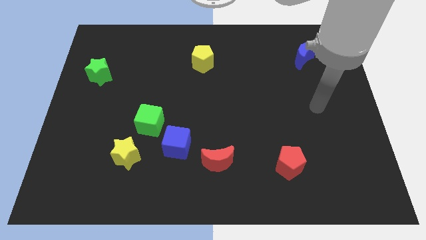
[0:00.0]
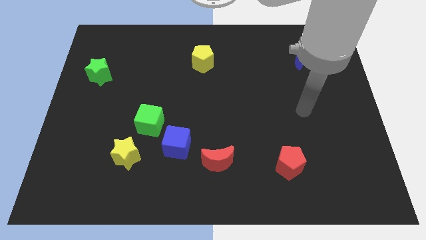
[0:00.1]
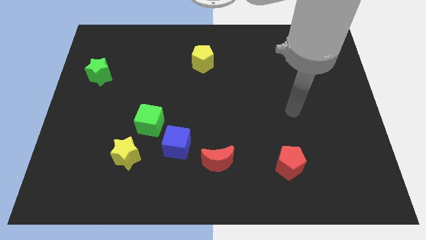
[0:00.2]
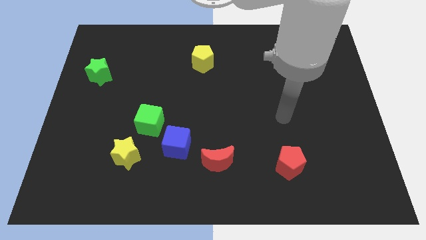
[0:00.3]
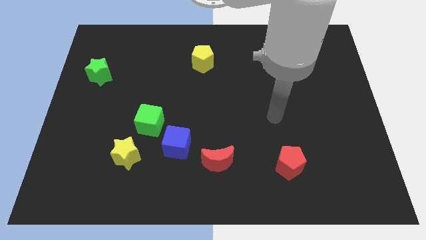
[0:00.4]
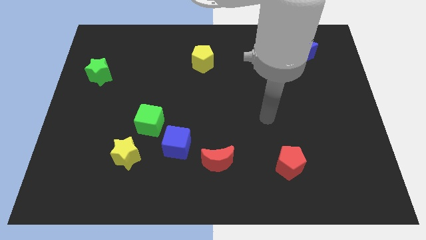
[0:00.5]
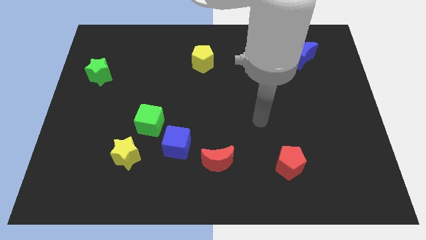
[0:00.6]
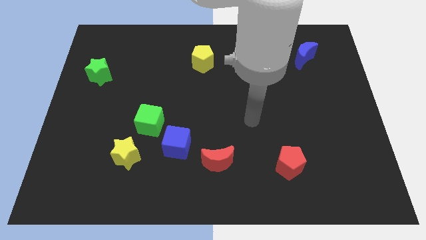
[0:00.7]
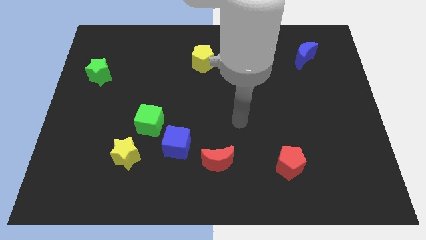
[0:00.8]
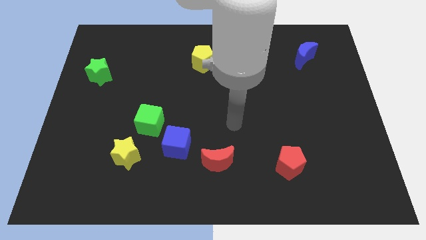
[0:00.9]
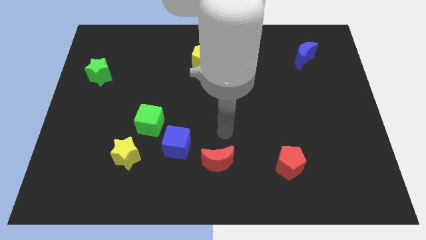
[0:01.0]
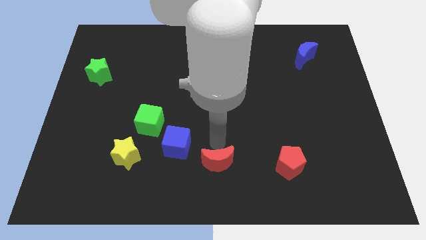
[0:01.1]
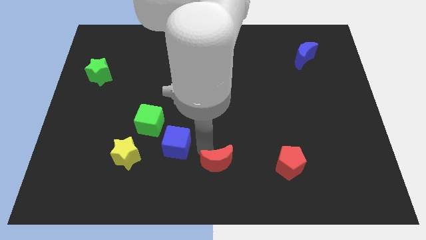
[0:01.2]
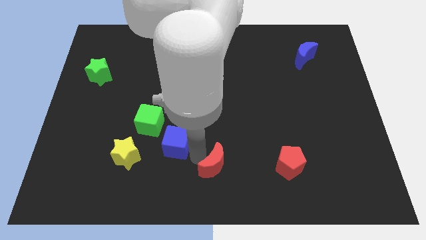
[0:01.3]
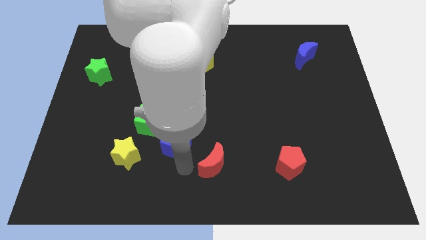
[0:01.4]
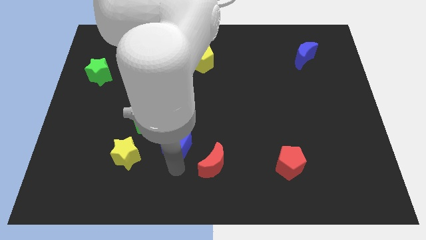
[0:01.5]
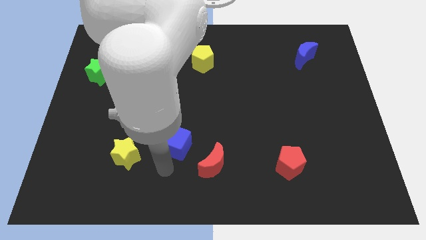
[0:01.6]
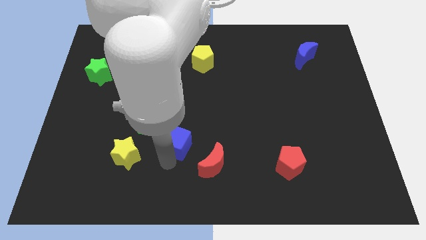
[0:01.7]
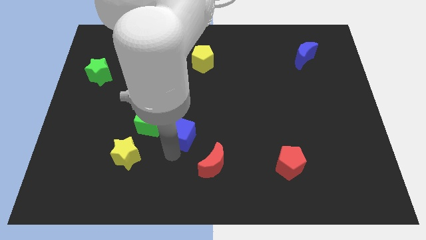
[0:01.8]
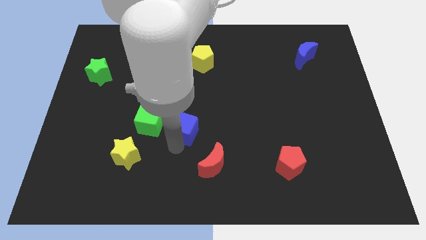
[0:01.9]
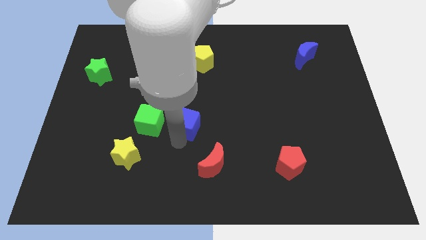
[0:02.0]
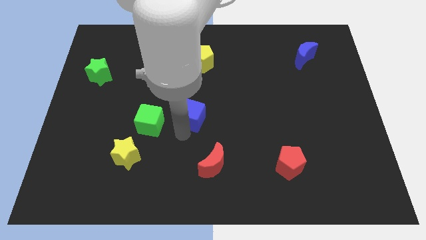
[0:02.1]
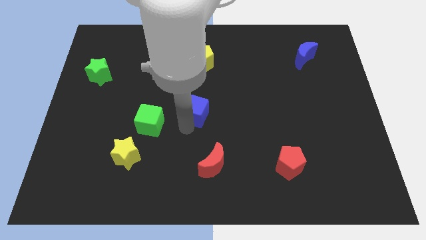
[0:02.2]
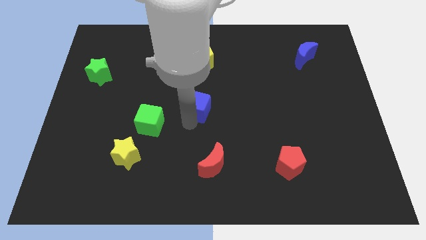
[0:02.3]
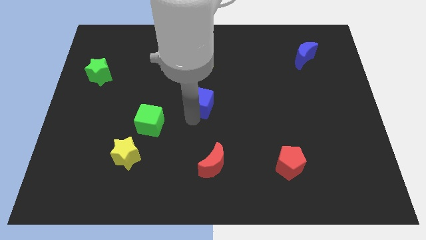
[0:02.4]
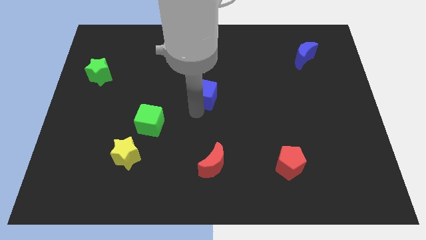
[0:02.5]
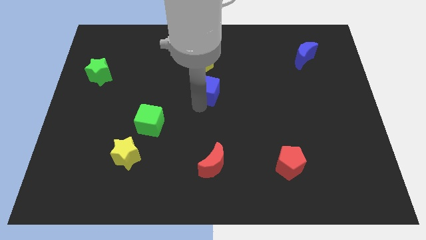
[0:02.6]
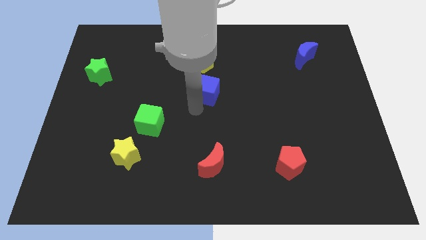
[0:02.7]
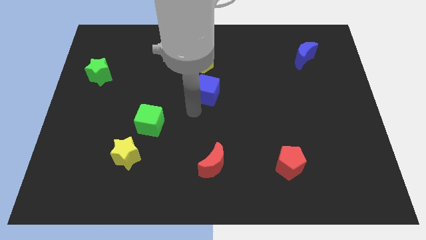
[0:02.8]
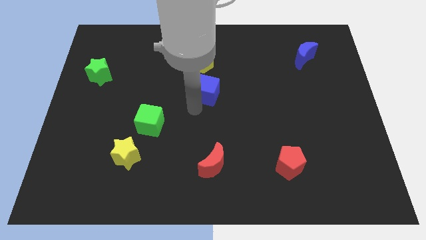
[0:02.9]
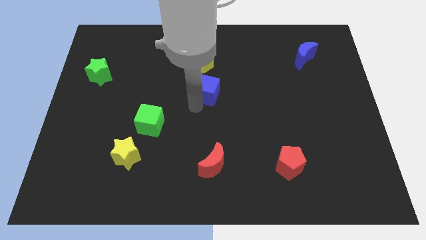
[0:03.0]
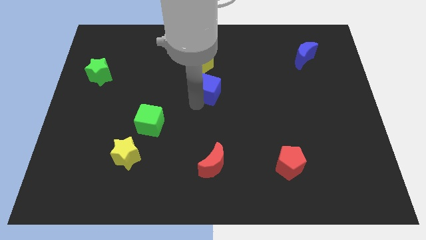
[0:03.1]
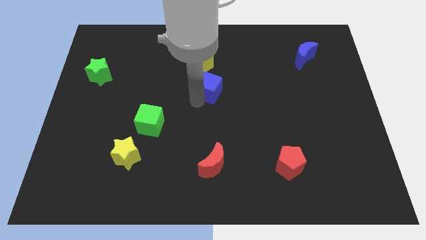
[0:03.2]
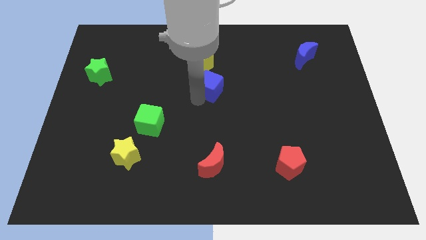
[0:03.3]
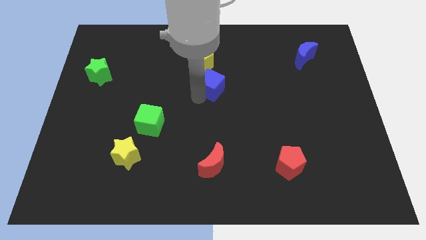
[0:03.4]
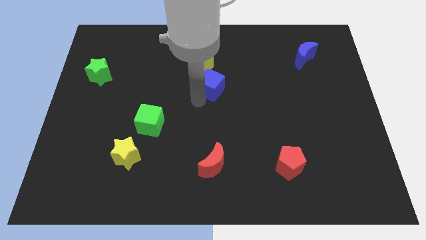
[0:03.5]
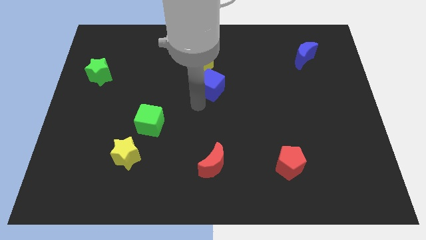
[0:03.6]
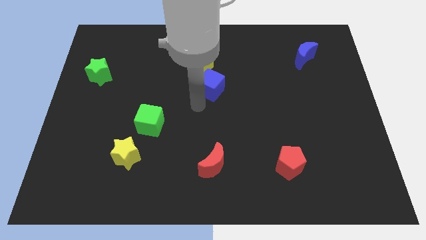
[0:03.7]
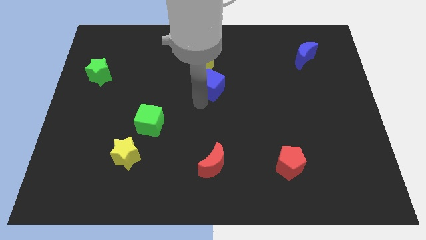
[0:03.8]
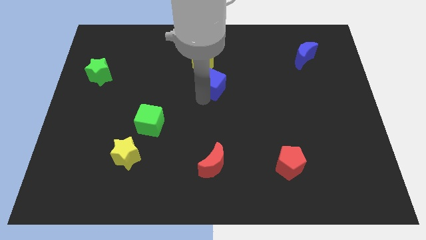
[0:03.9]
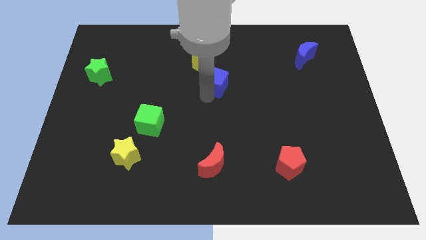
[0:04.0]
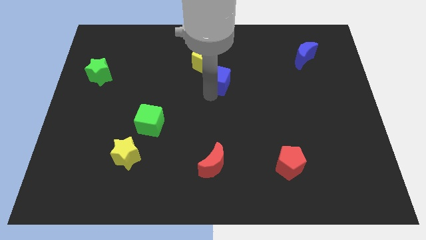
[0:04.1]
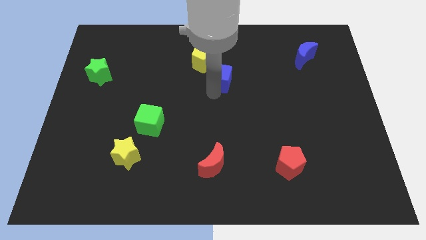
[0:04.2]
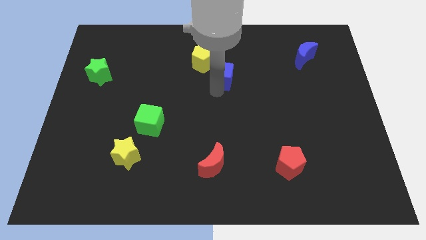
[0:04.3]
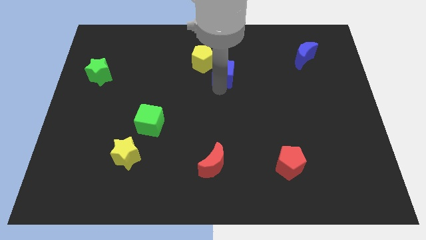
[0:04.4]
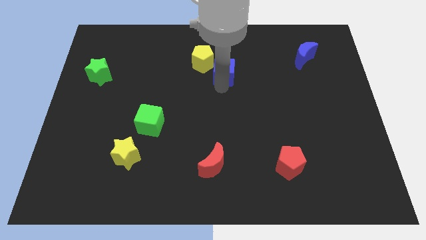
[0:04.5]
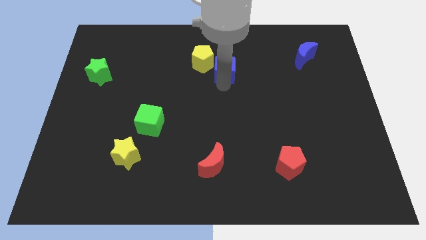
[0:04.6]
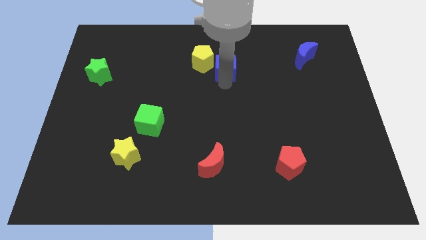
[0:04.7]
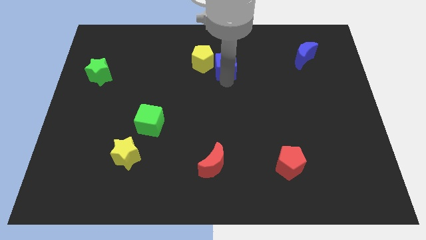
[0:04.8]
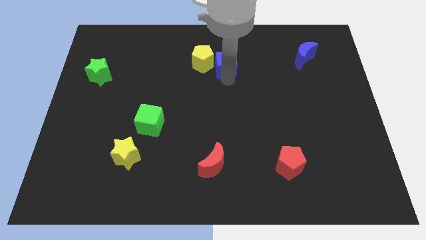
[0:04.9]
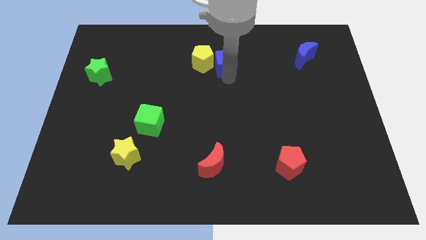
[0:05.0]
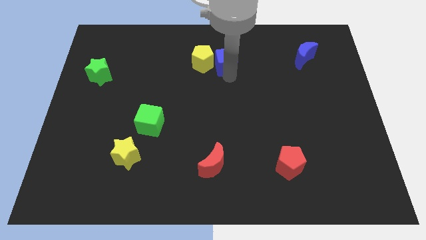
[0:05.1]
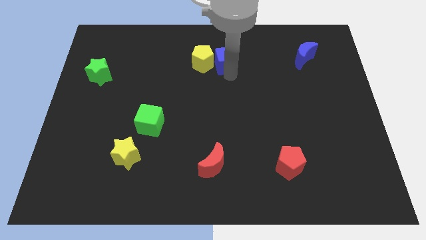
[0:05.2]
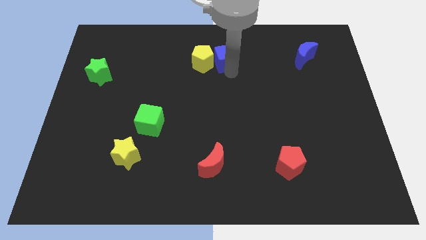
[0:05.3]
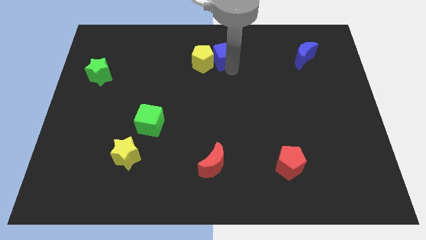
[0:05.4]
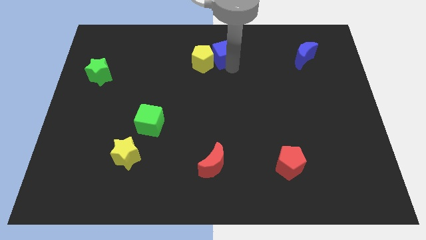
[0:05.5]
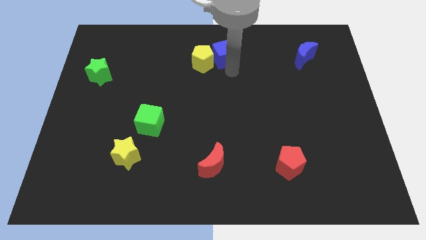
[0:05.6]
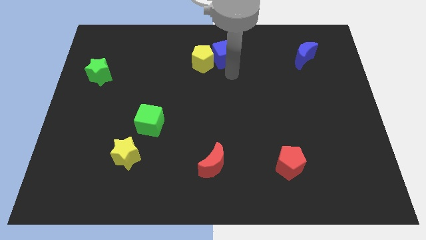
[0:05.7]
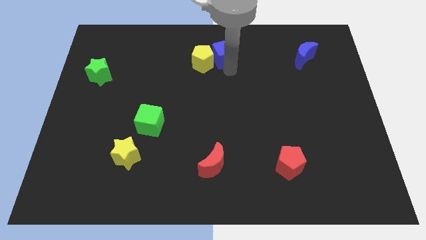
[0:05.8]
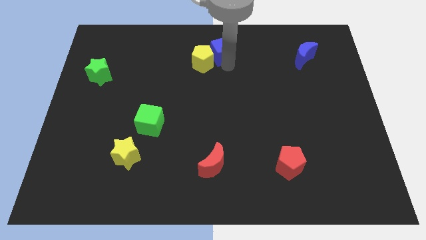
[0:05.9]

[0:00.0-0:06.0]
move the blue cube to the towards your base

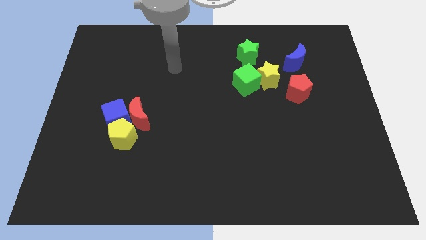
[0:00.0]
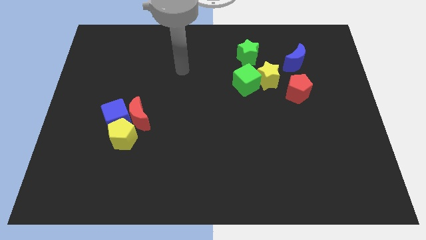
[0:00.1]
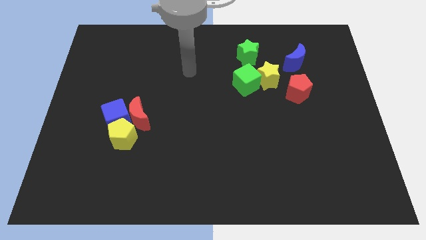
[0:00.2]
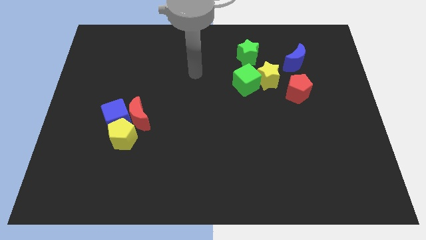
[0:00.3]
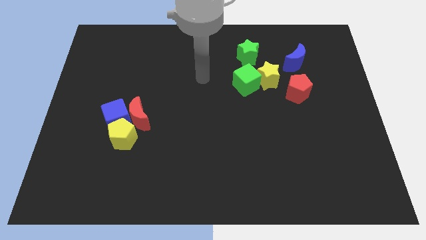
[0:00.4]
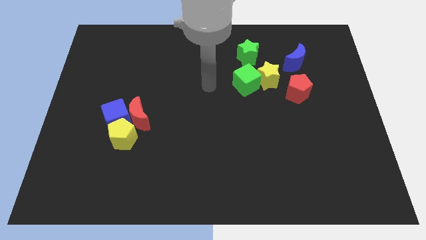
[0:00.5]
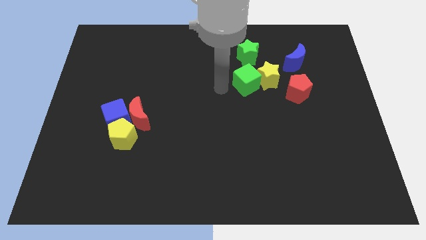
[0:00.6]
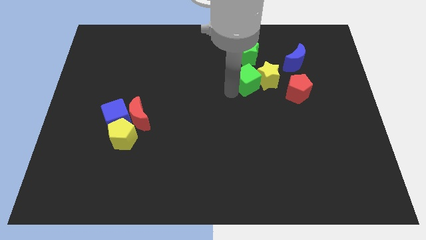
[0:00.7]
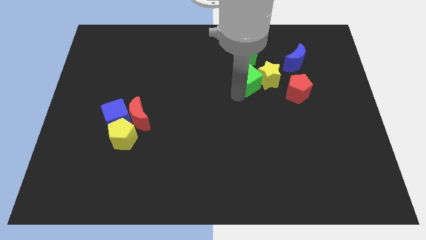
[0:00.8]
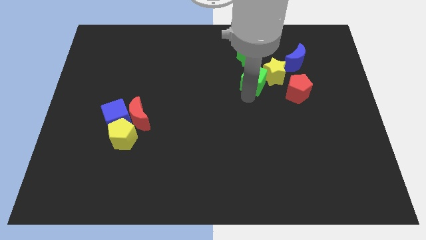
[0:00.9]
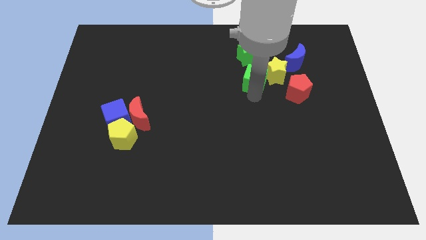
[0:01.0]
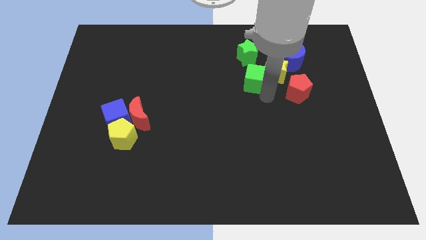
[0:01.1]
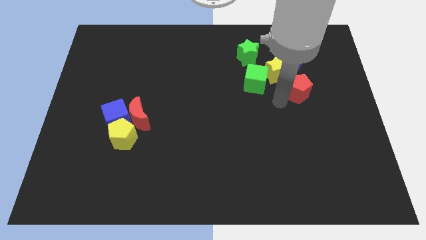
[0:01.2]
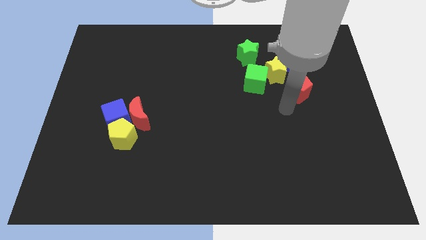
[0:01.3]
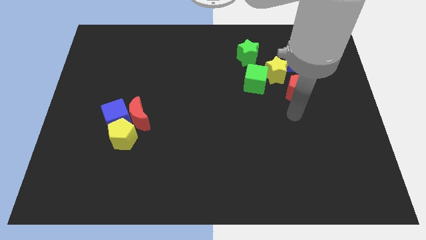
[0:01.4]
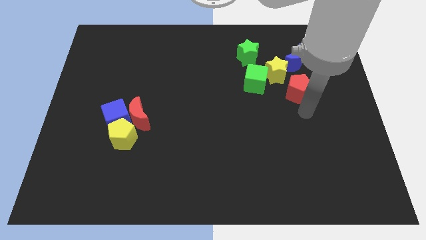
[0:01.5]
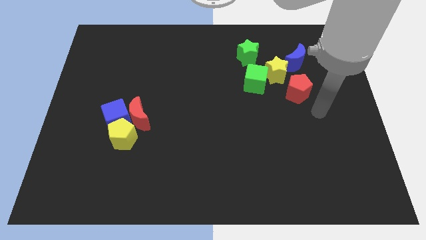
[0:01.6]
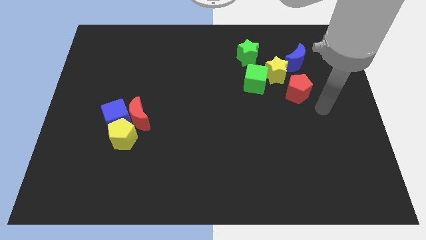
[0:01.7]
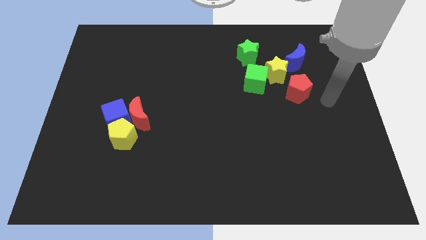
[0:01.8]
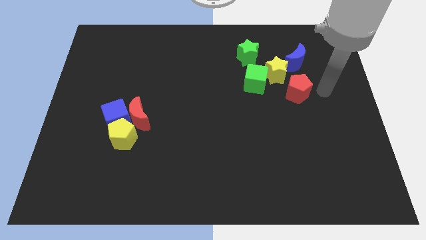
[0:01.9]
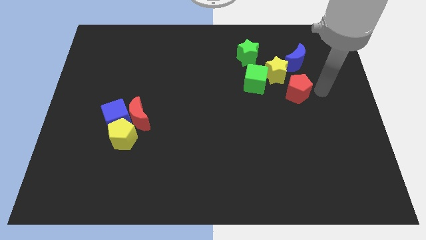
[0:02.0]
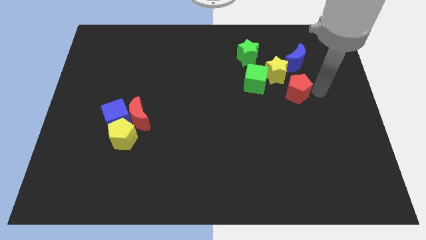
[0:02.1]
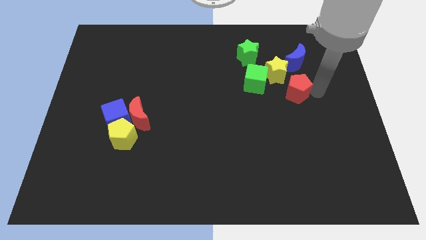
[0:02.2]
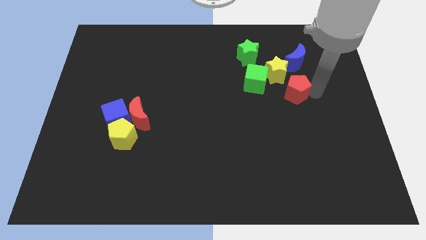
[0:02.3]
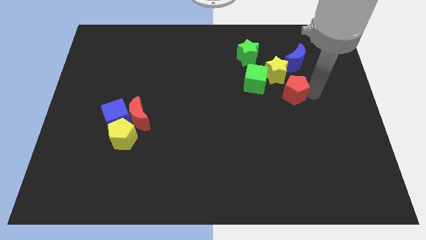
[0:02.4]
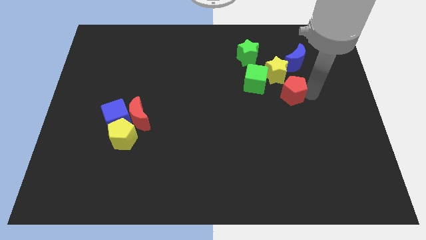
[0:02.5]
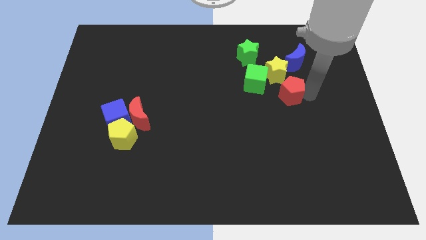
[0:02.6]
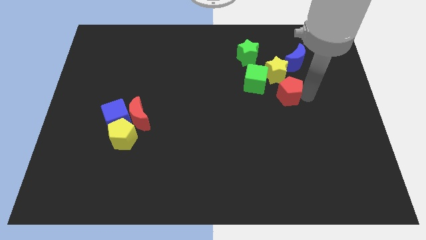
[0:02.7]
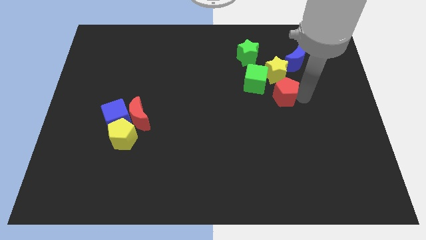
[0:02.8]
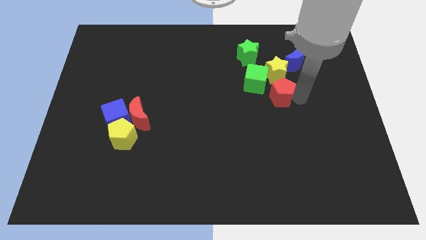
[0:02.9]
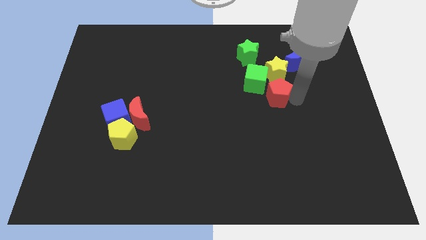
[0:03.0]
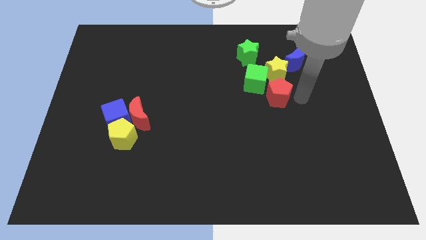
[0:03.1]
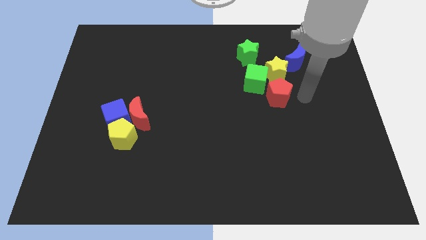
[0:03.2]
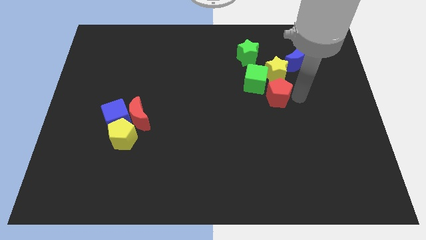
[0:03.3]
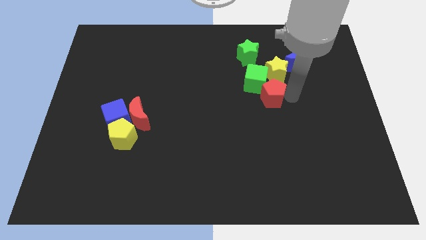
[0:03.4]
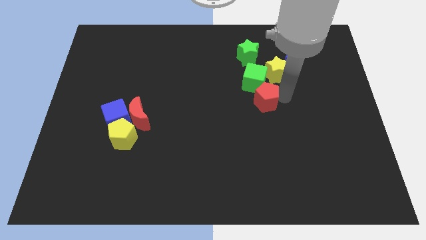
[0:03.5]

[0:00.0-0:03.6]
push the red pentagon to the center
